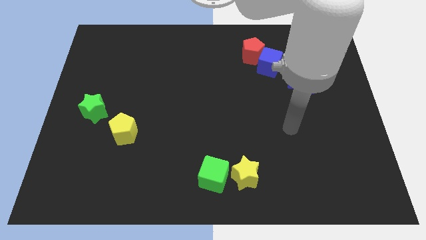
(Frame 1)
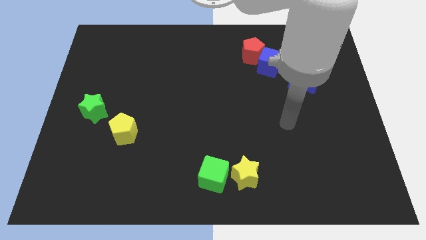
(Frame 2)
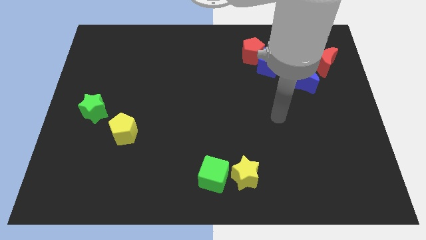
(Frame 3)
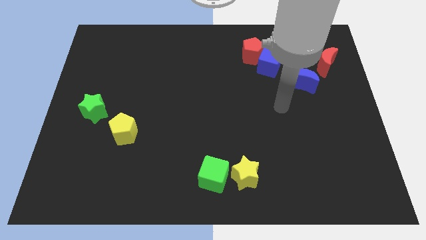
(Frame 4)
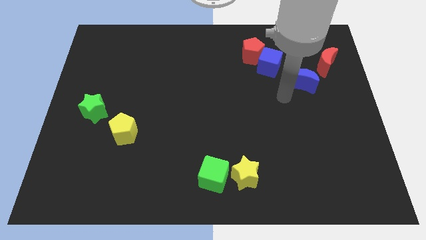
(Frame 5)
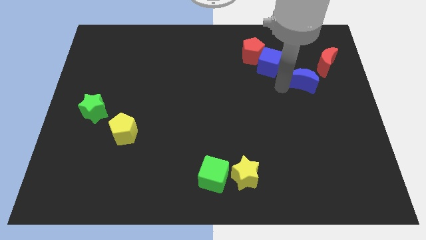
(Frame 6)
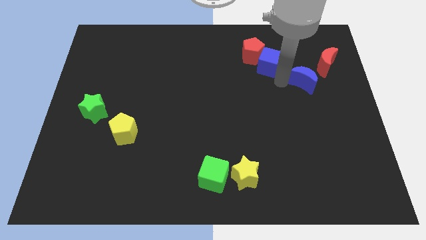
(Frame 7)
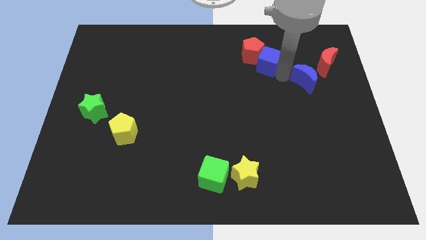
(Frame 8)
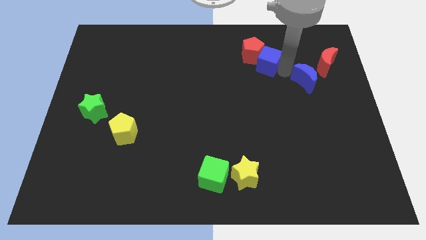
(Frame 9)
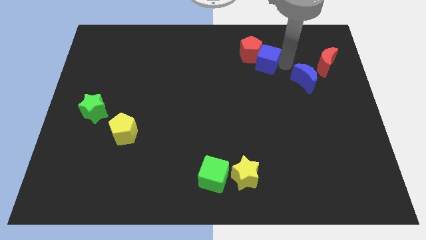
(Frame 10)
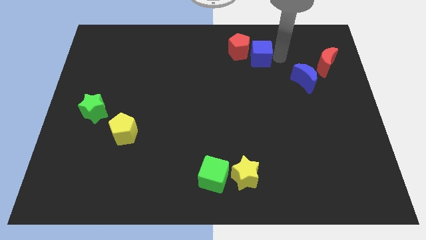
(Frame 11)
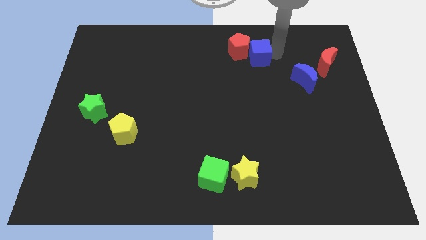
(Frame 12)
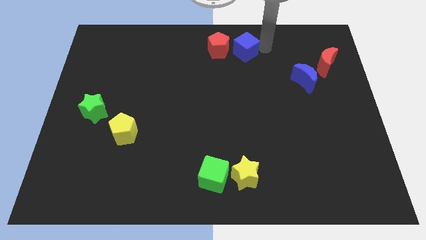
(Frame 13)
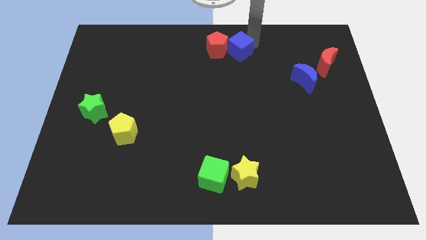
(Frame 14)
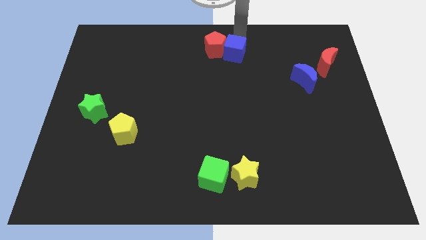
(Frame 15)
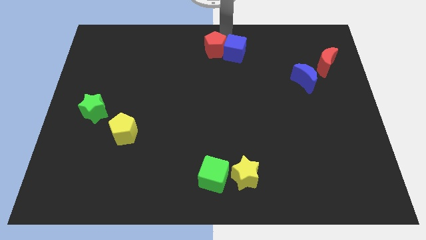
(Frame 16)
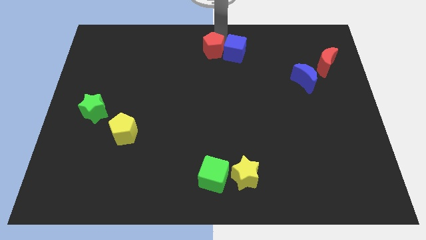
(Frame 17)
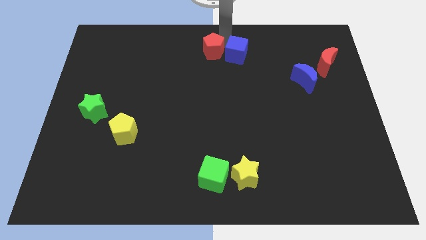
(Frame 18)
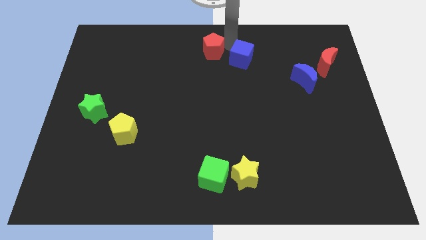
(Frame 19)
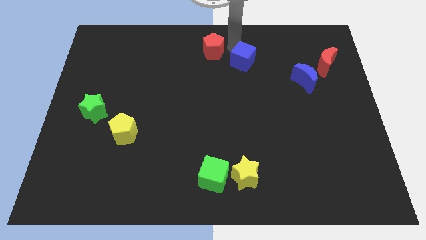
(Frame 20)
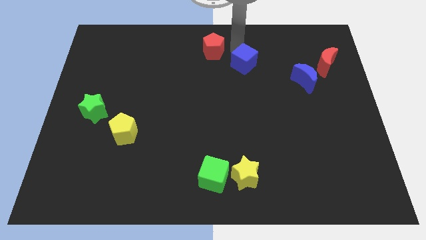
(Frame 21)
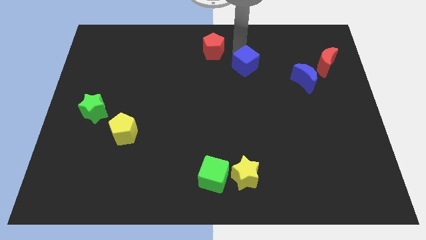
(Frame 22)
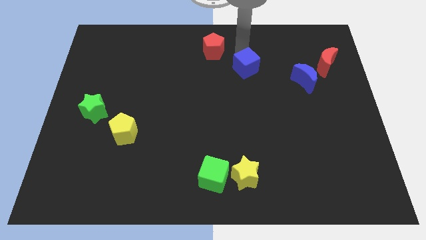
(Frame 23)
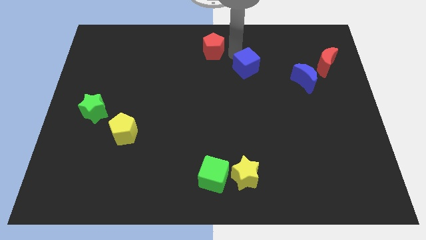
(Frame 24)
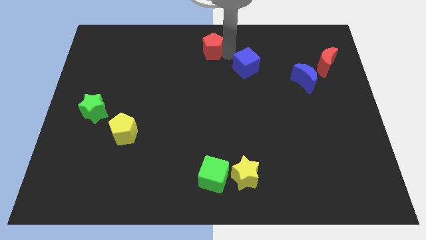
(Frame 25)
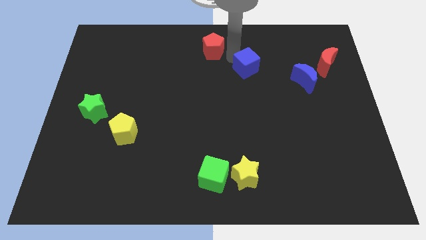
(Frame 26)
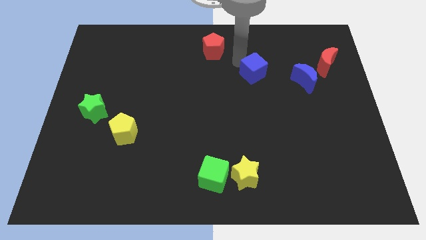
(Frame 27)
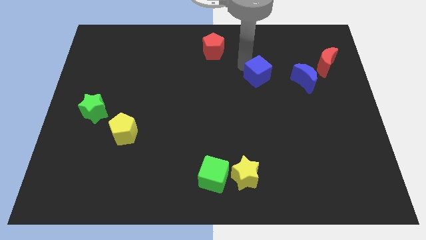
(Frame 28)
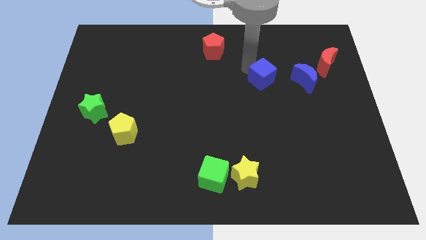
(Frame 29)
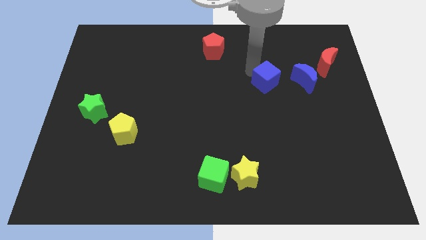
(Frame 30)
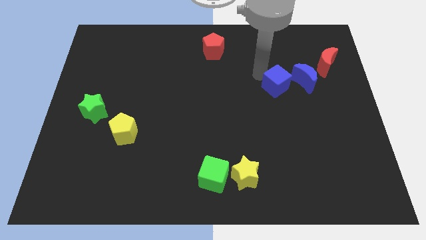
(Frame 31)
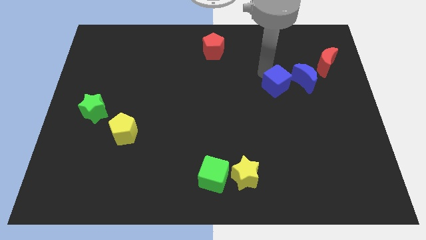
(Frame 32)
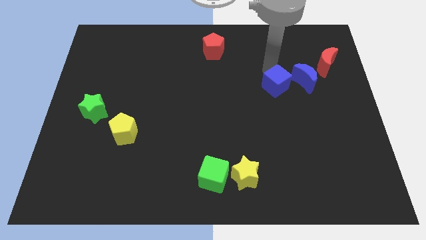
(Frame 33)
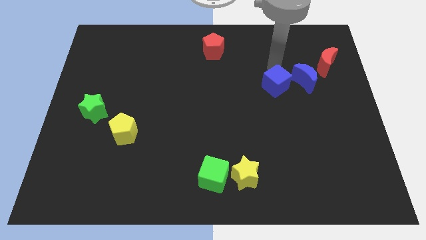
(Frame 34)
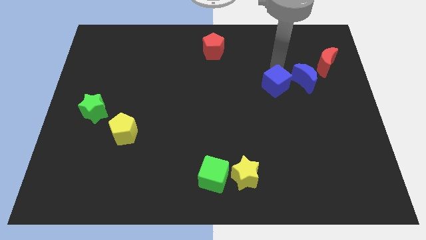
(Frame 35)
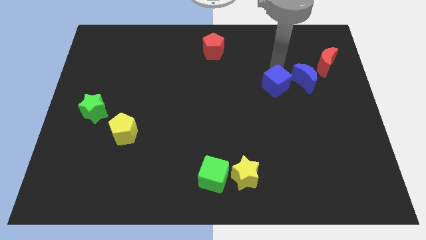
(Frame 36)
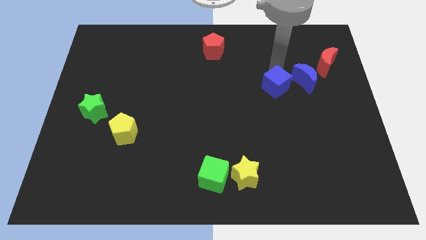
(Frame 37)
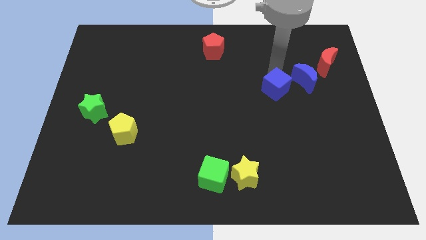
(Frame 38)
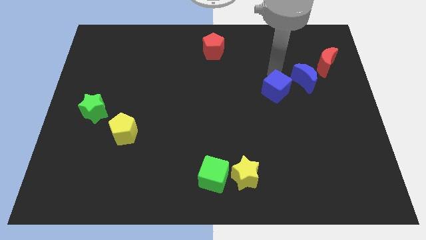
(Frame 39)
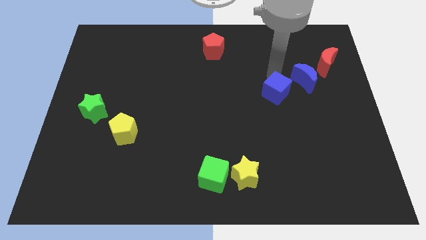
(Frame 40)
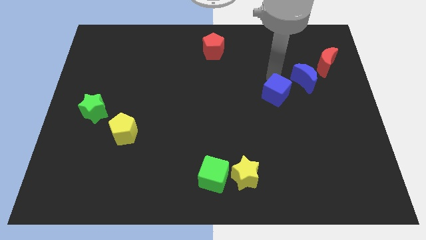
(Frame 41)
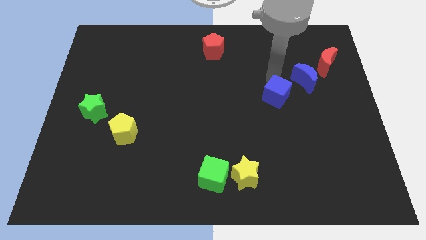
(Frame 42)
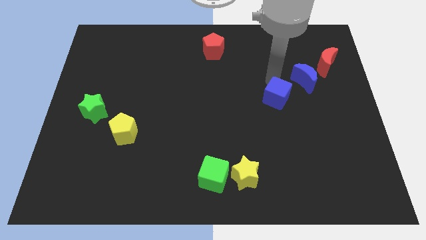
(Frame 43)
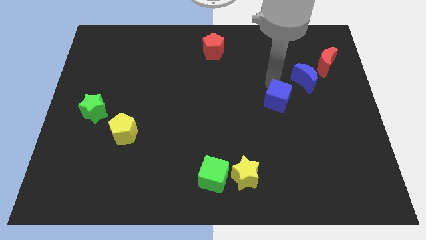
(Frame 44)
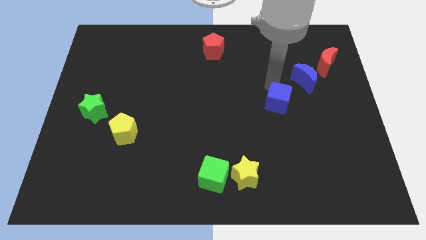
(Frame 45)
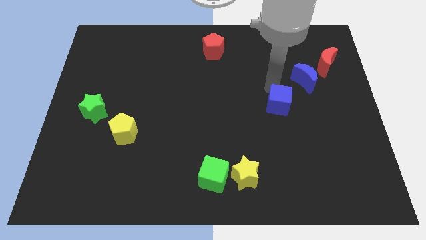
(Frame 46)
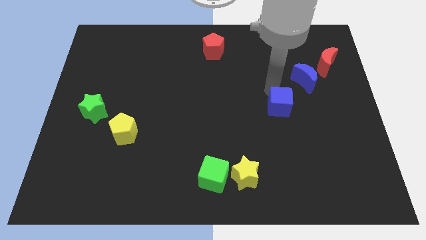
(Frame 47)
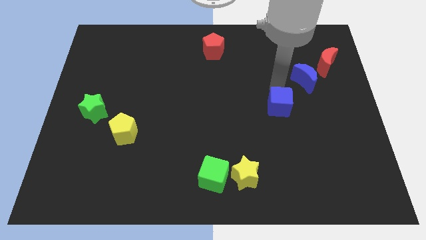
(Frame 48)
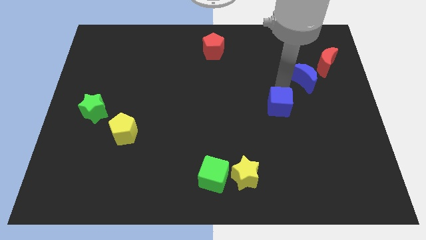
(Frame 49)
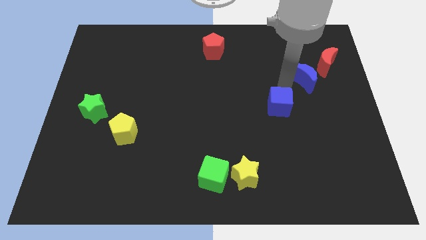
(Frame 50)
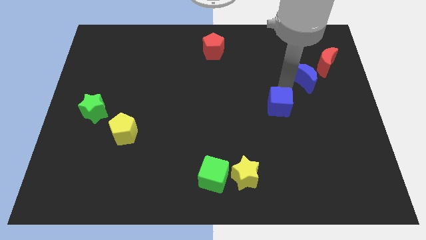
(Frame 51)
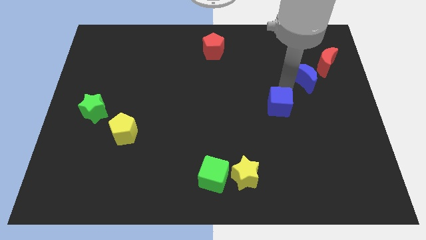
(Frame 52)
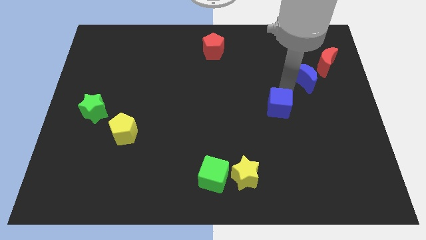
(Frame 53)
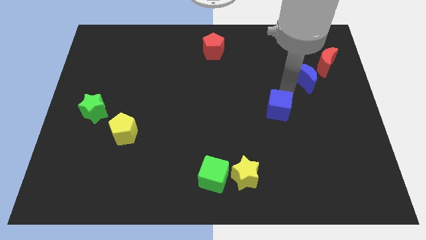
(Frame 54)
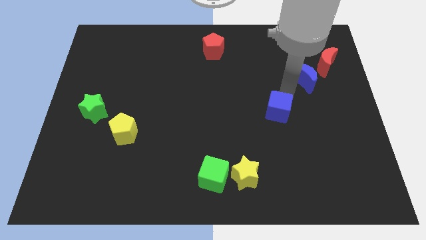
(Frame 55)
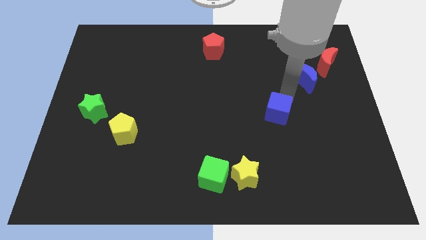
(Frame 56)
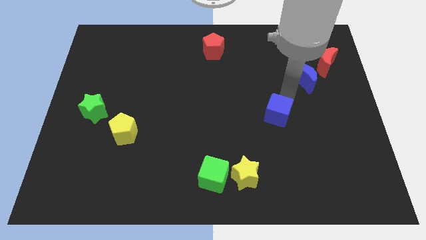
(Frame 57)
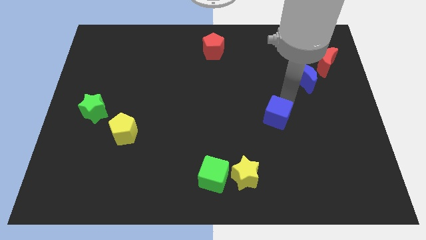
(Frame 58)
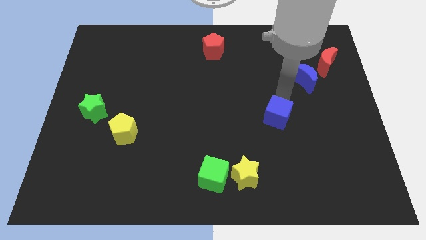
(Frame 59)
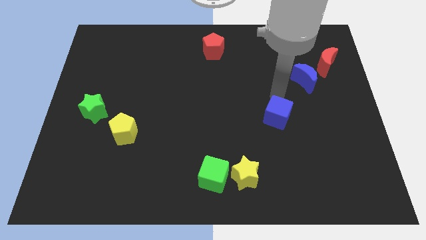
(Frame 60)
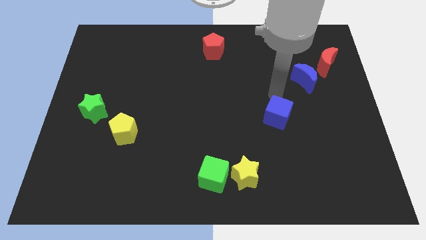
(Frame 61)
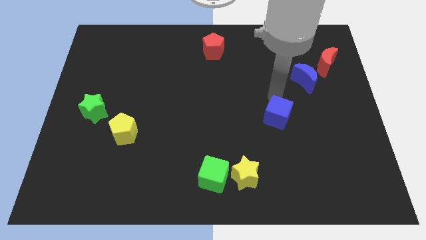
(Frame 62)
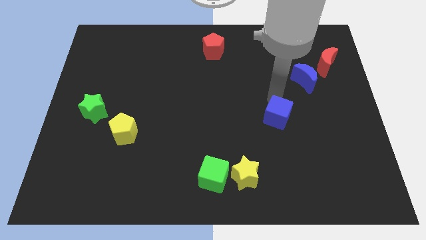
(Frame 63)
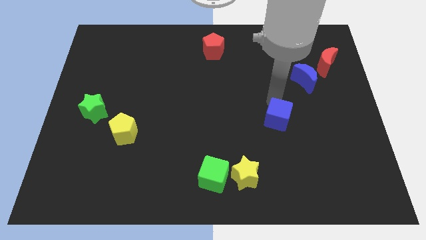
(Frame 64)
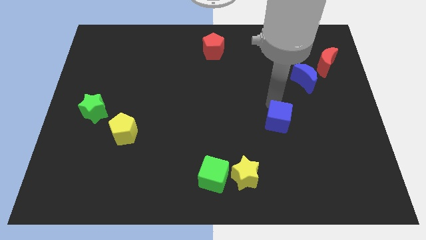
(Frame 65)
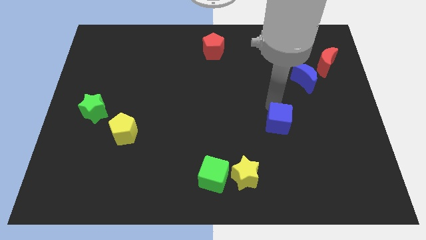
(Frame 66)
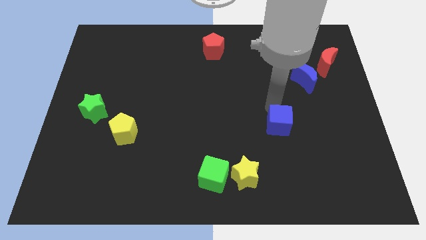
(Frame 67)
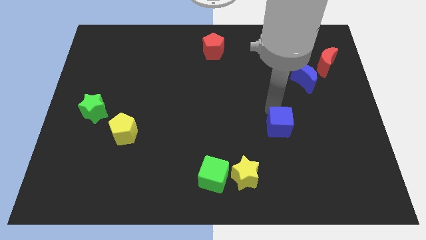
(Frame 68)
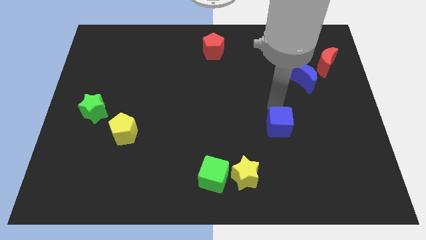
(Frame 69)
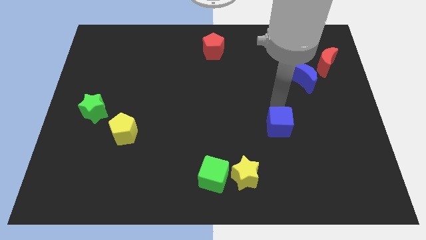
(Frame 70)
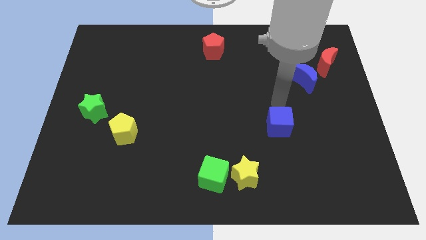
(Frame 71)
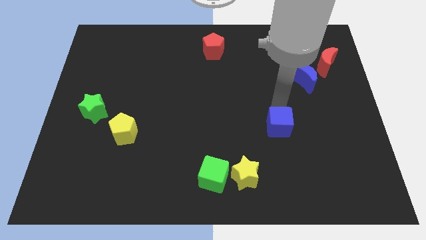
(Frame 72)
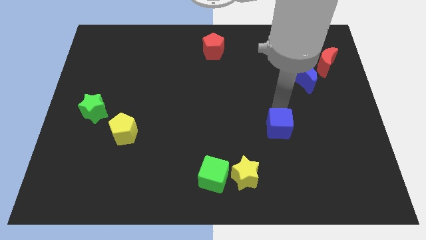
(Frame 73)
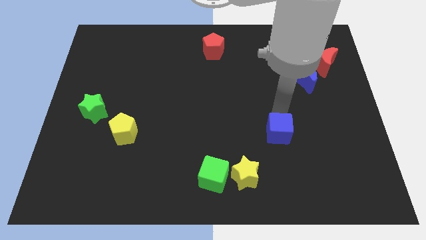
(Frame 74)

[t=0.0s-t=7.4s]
slide the blue cube down

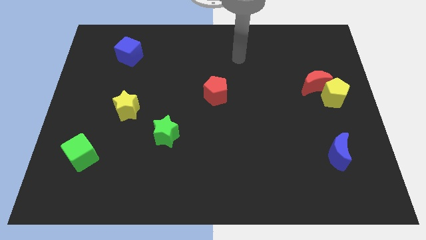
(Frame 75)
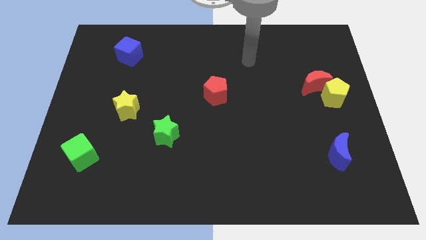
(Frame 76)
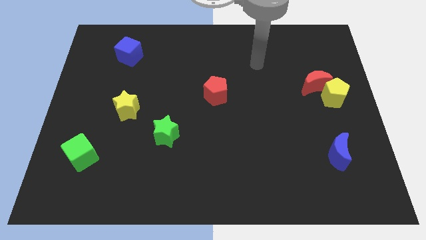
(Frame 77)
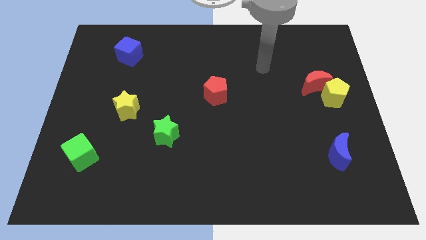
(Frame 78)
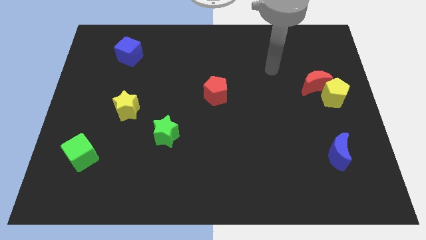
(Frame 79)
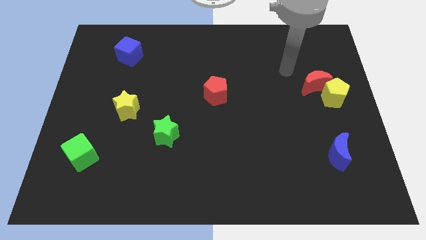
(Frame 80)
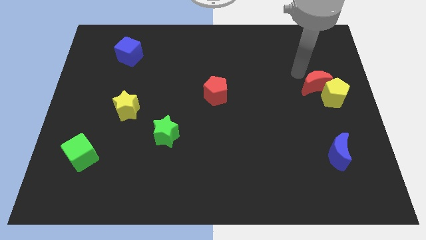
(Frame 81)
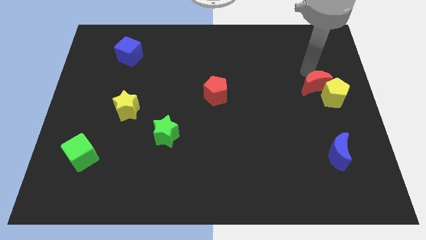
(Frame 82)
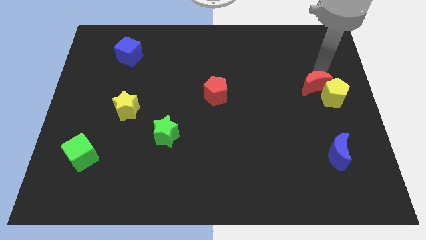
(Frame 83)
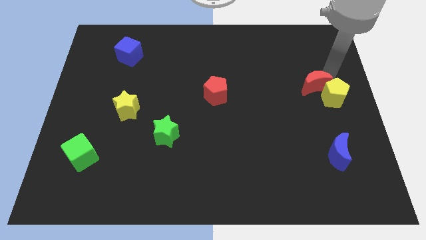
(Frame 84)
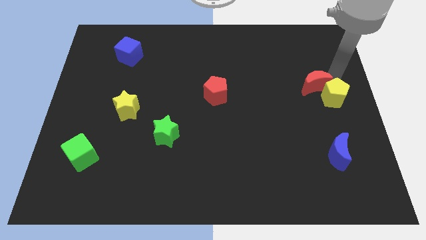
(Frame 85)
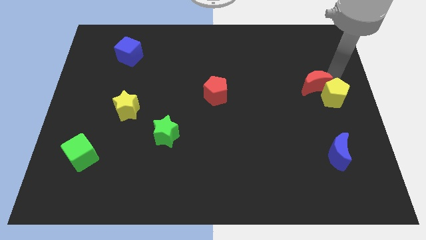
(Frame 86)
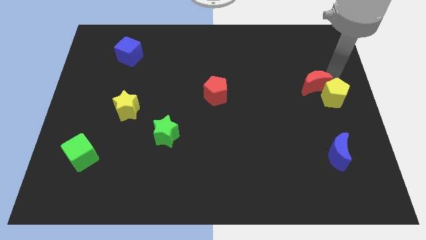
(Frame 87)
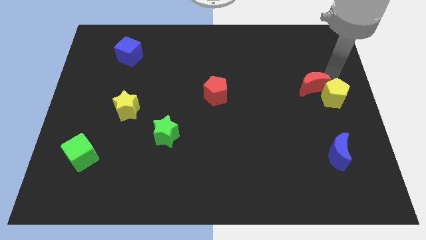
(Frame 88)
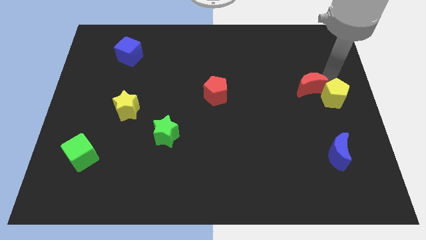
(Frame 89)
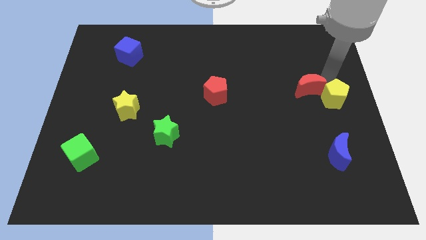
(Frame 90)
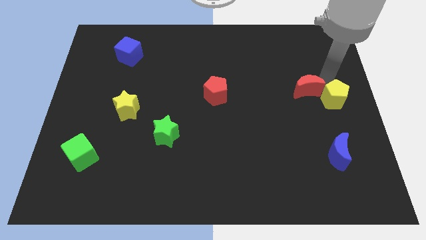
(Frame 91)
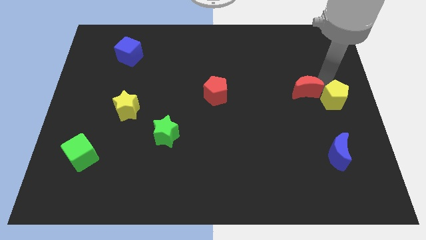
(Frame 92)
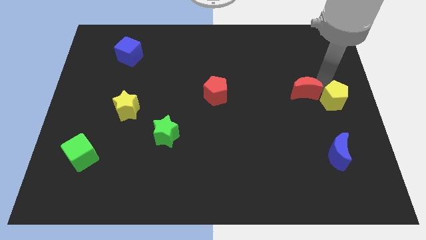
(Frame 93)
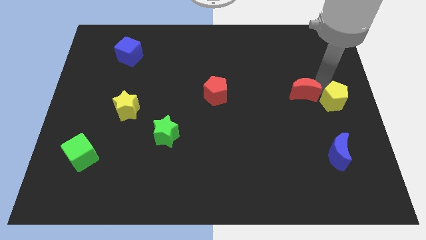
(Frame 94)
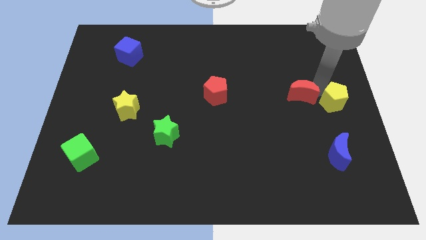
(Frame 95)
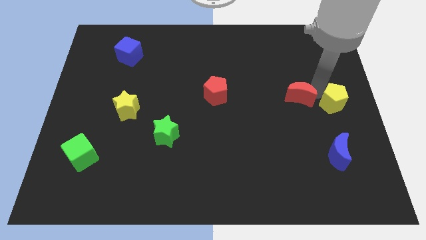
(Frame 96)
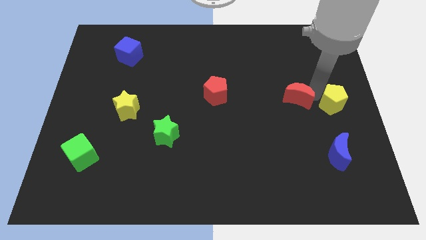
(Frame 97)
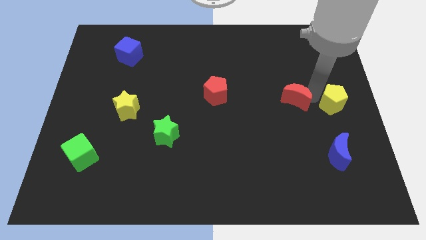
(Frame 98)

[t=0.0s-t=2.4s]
slide the red moon down and then to the left slightly
